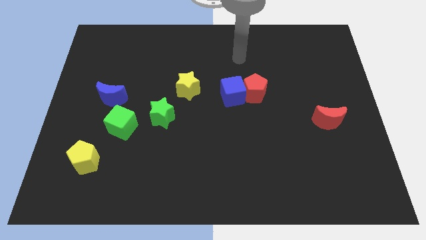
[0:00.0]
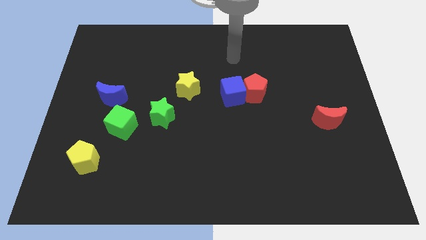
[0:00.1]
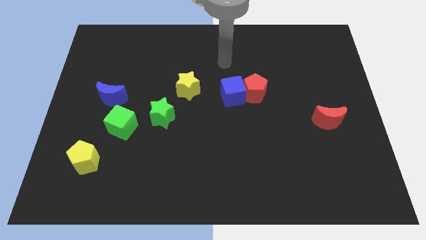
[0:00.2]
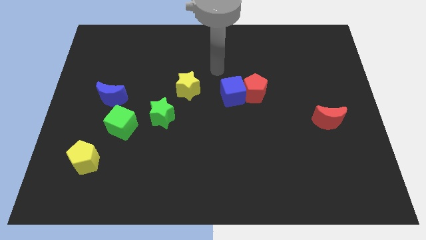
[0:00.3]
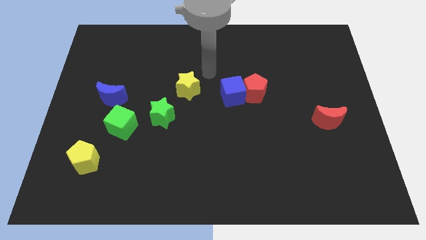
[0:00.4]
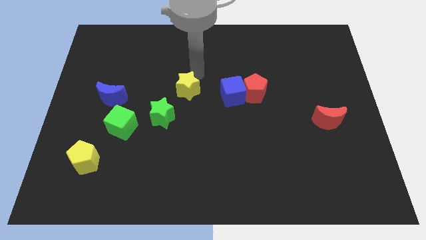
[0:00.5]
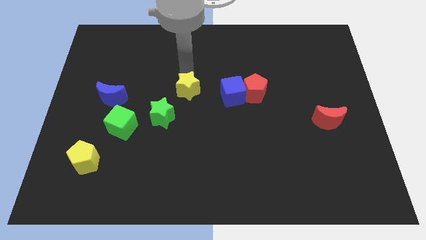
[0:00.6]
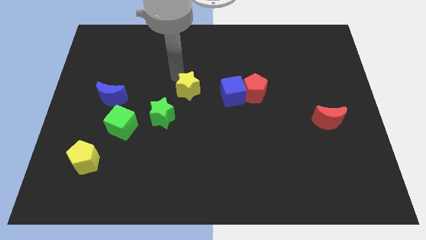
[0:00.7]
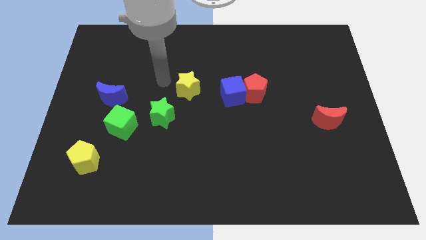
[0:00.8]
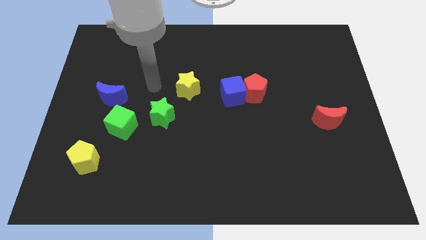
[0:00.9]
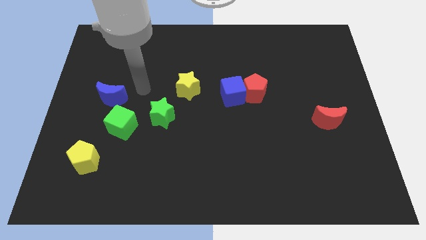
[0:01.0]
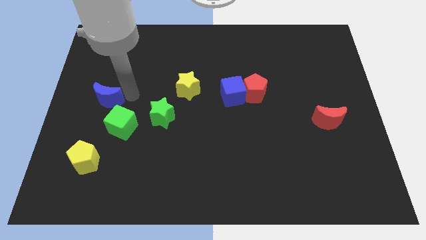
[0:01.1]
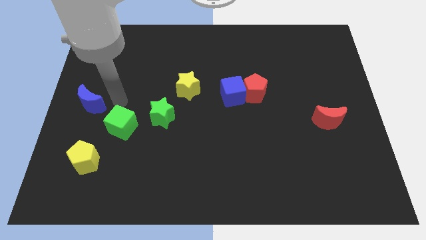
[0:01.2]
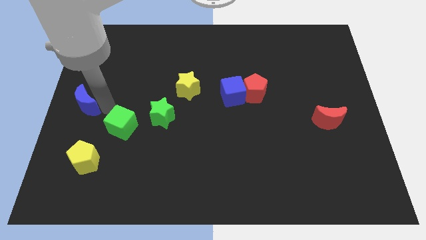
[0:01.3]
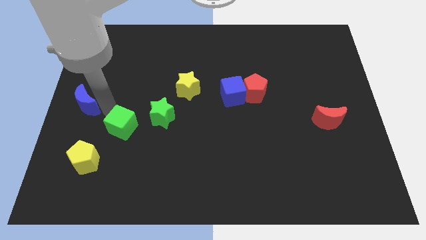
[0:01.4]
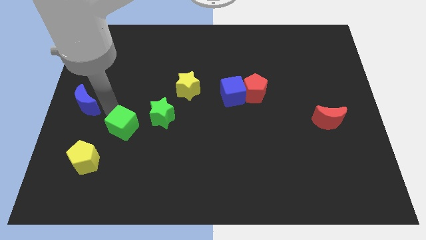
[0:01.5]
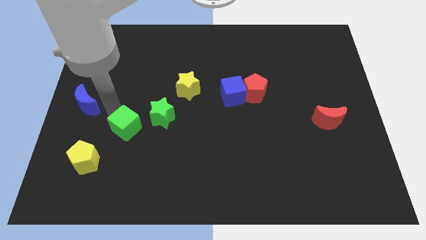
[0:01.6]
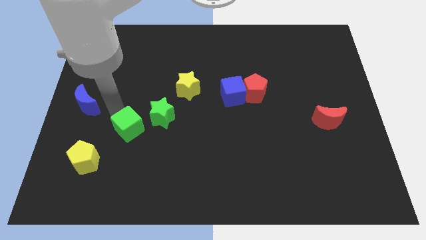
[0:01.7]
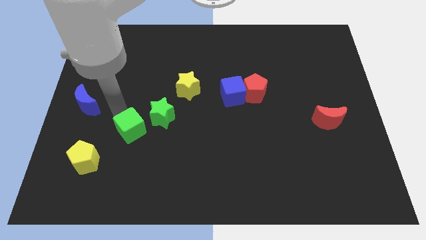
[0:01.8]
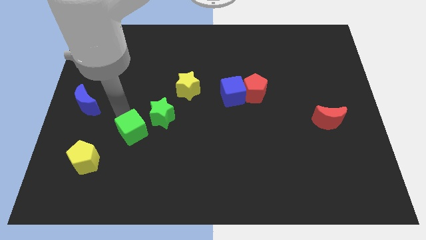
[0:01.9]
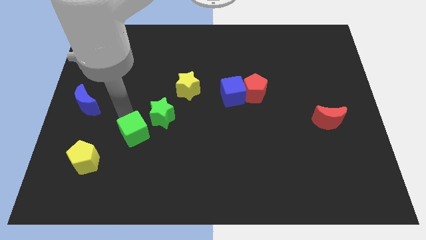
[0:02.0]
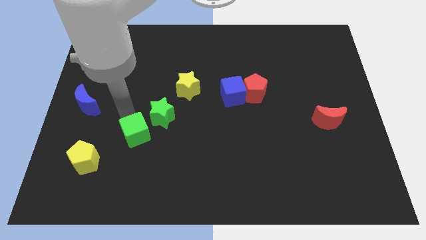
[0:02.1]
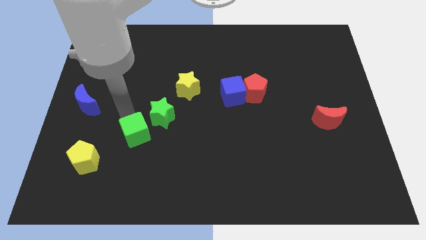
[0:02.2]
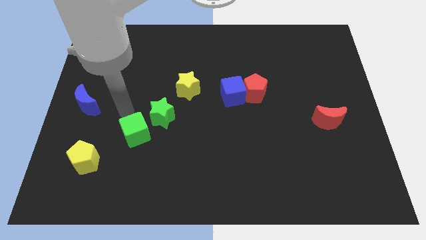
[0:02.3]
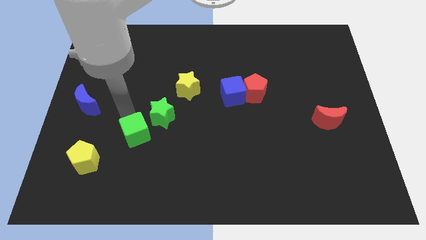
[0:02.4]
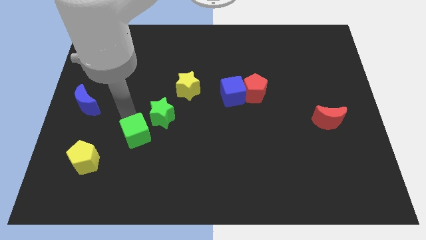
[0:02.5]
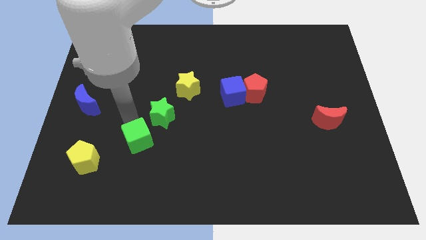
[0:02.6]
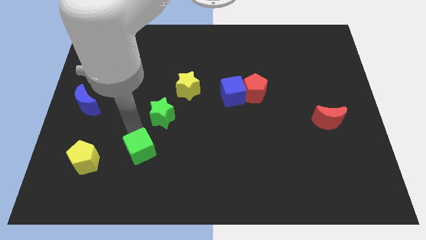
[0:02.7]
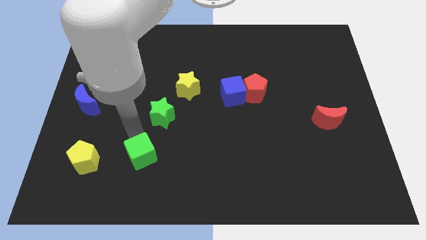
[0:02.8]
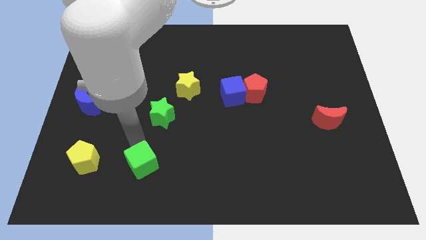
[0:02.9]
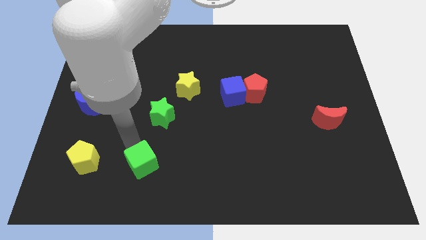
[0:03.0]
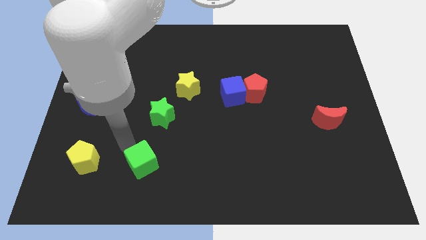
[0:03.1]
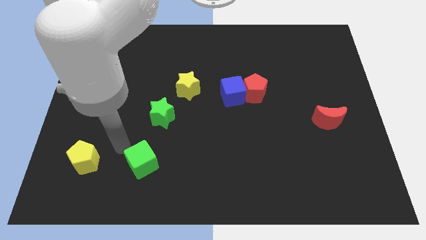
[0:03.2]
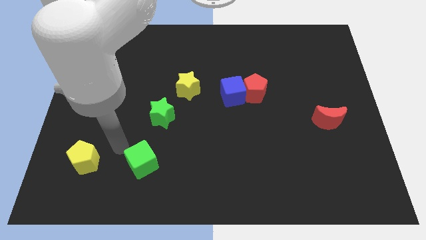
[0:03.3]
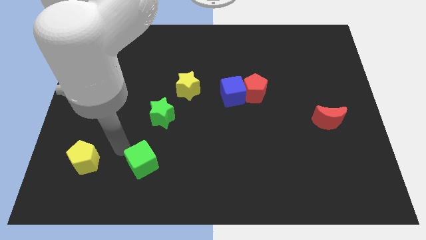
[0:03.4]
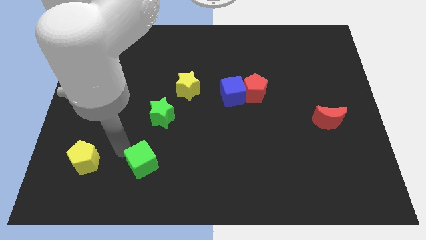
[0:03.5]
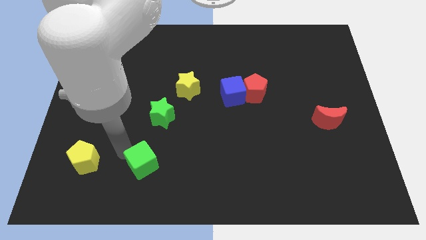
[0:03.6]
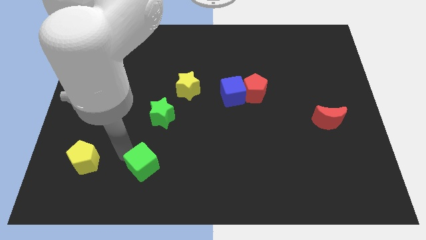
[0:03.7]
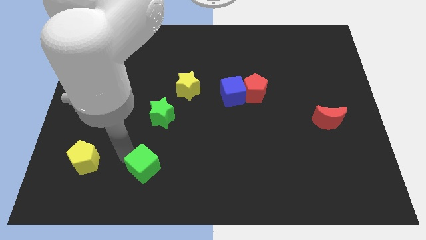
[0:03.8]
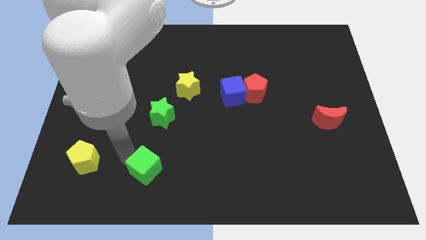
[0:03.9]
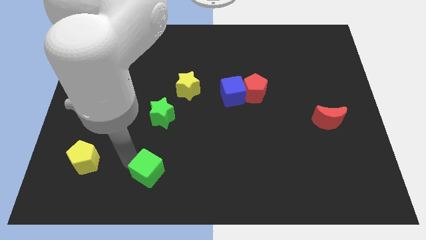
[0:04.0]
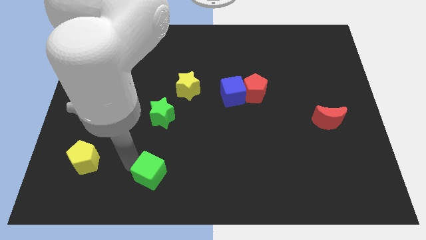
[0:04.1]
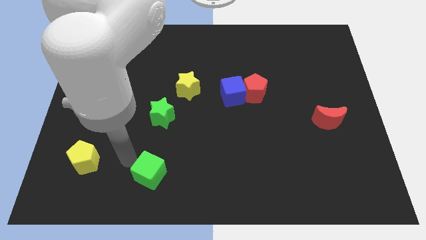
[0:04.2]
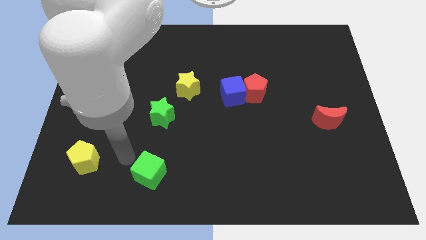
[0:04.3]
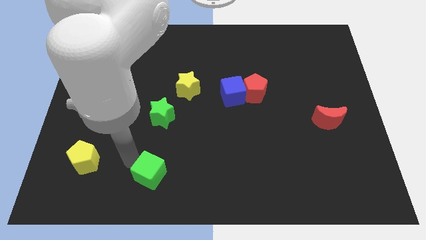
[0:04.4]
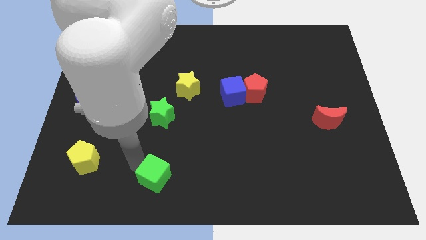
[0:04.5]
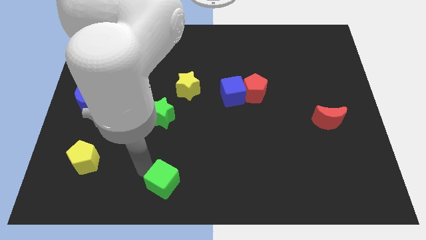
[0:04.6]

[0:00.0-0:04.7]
move the green cube to the bottom

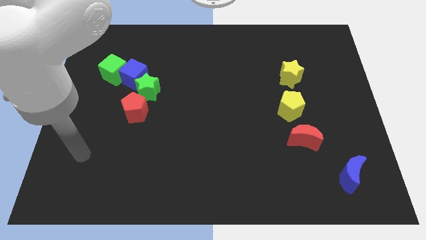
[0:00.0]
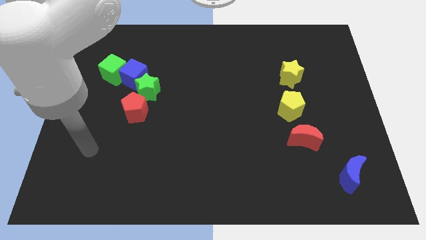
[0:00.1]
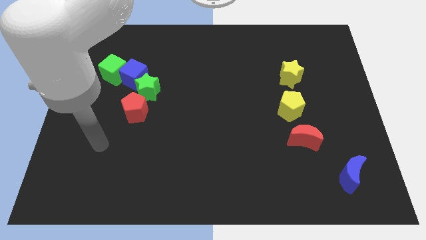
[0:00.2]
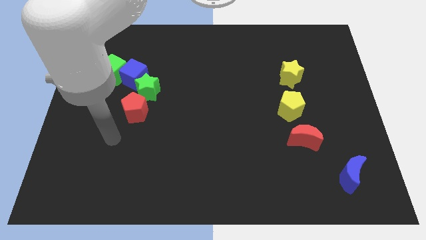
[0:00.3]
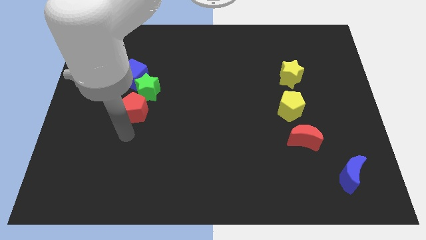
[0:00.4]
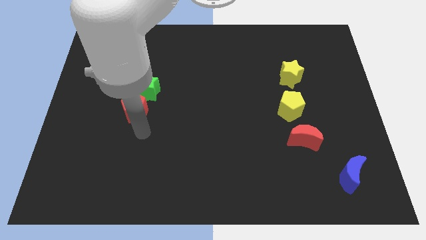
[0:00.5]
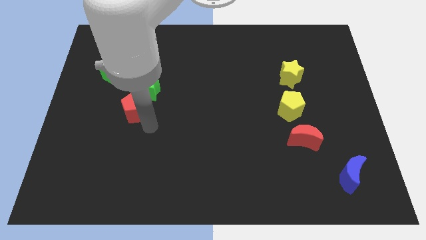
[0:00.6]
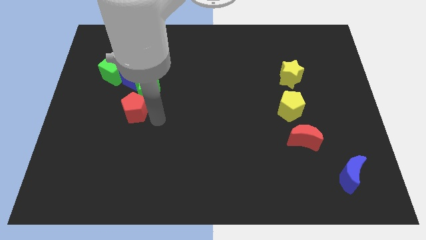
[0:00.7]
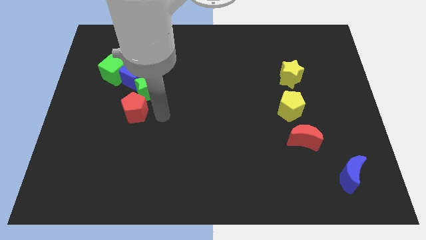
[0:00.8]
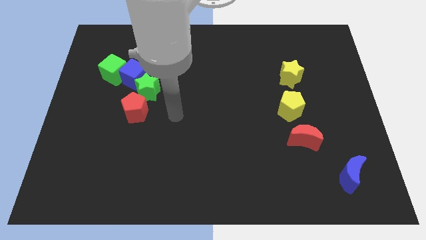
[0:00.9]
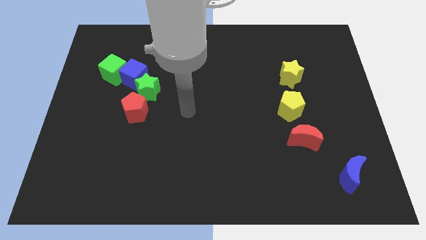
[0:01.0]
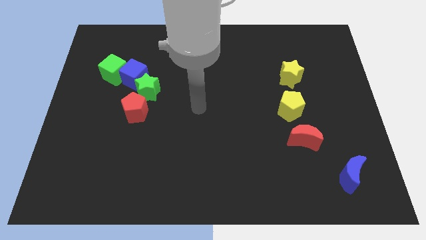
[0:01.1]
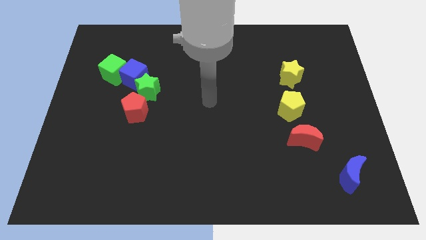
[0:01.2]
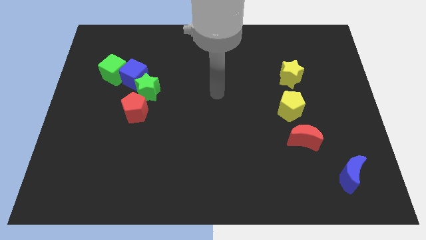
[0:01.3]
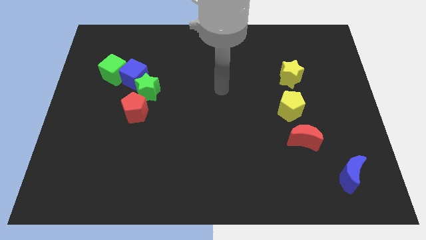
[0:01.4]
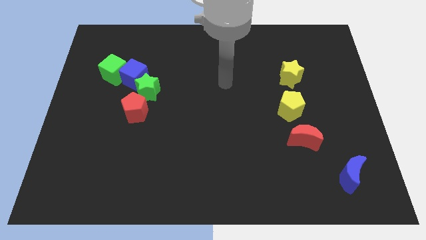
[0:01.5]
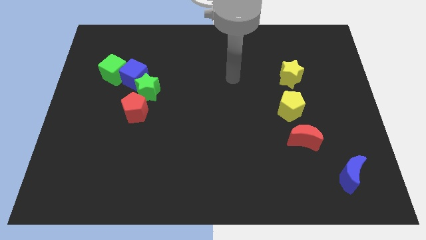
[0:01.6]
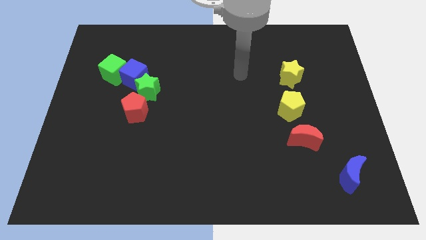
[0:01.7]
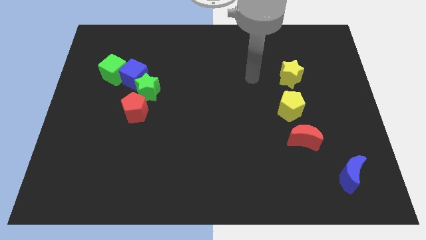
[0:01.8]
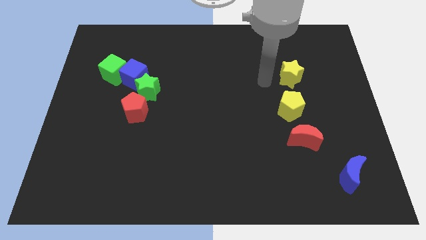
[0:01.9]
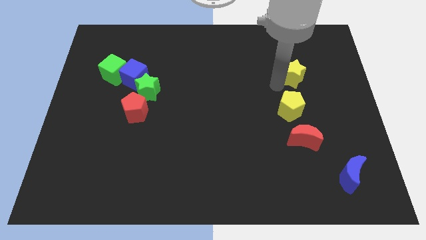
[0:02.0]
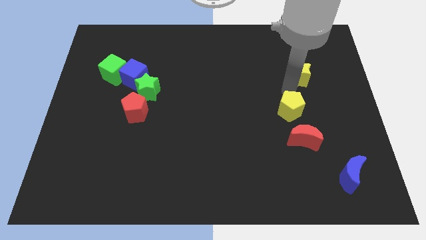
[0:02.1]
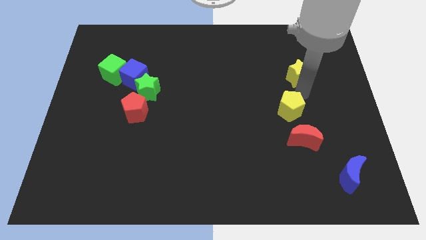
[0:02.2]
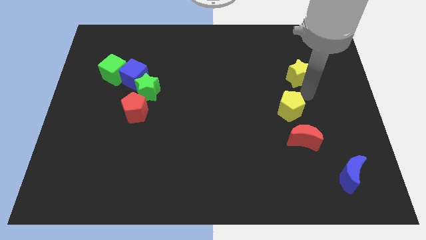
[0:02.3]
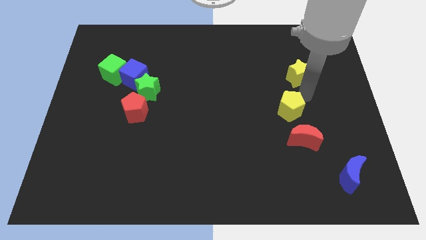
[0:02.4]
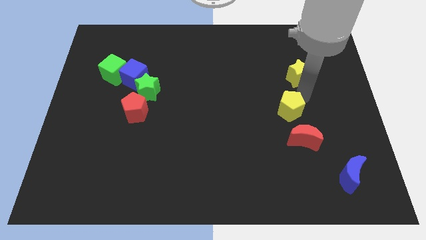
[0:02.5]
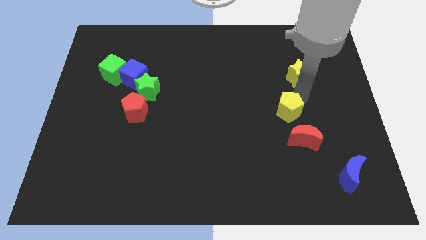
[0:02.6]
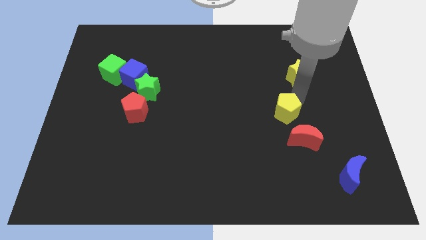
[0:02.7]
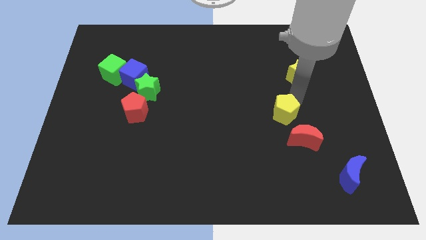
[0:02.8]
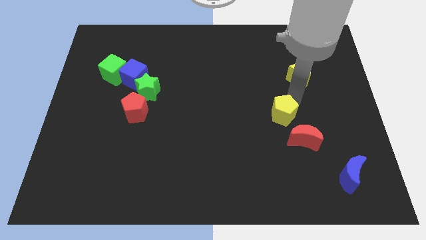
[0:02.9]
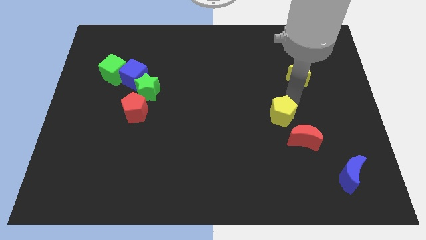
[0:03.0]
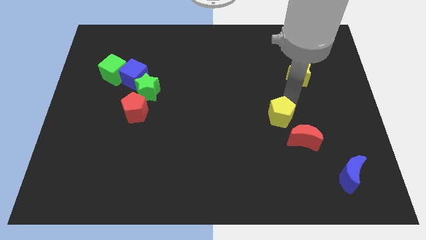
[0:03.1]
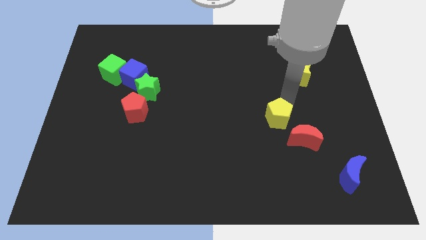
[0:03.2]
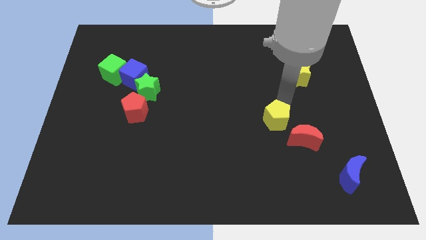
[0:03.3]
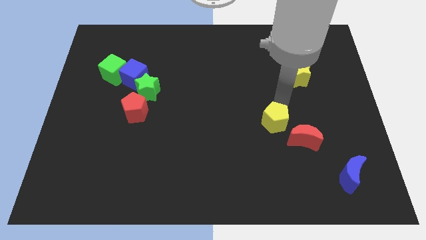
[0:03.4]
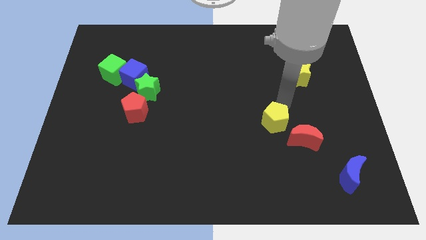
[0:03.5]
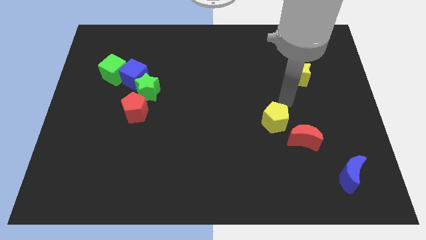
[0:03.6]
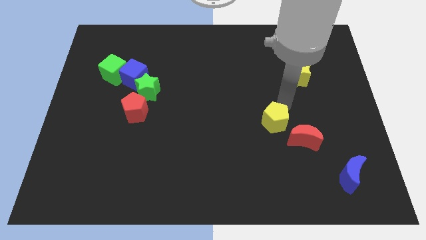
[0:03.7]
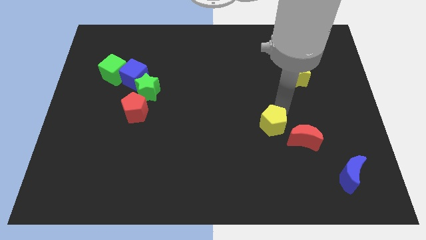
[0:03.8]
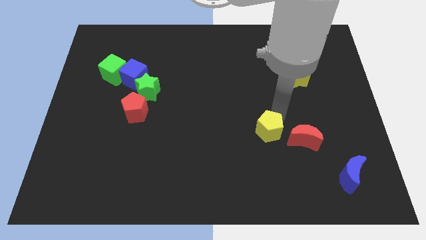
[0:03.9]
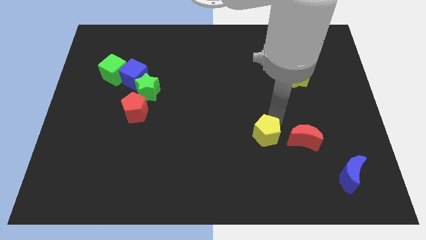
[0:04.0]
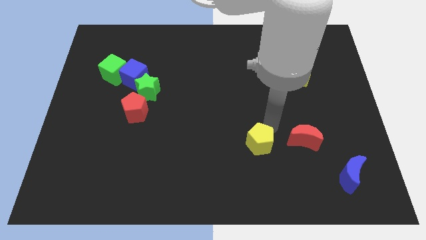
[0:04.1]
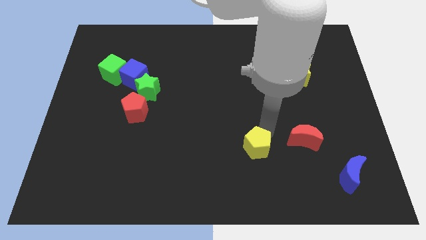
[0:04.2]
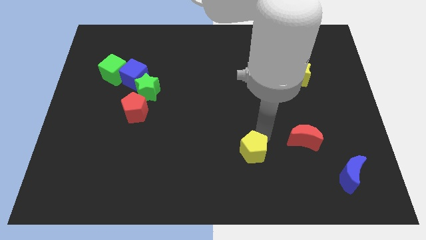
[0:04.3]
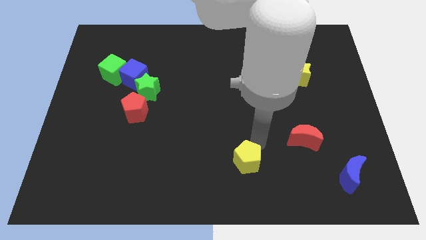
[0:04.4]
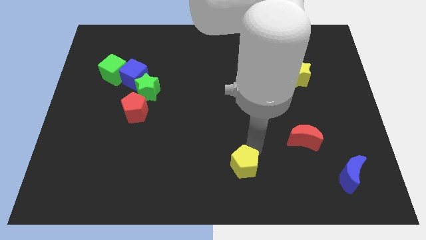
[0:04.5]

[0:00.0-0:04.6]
slide the yellow pentagon to the bottom side
